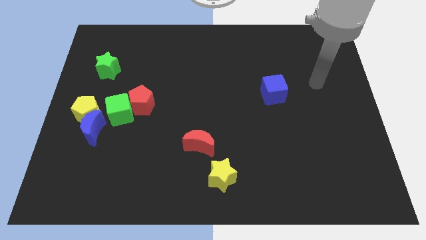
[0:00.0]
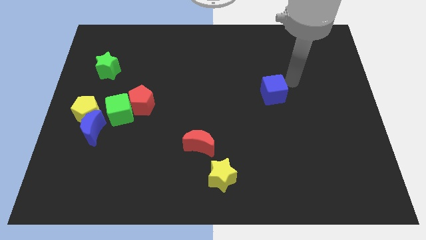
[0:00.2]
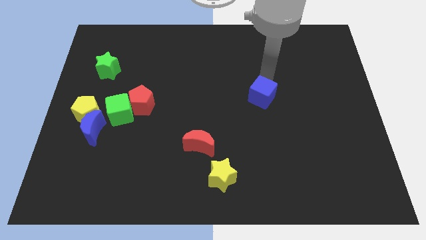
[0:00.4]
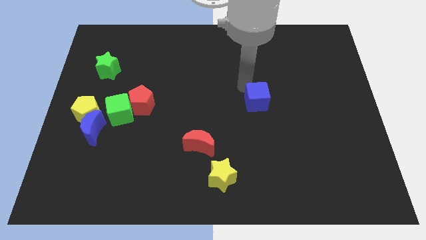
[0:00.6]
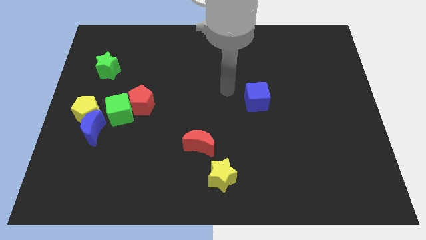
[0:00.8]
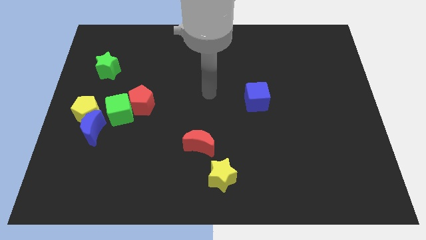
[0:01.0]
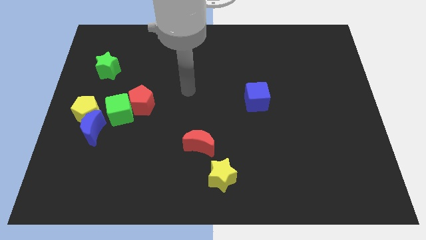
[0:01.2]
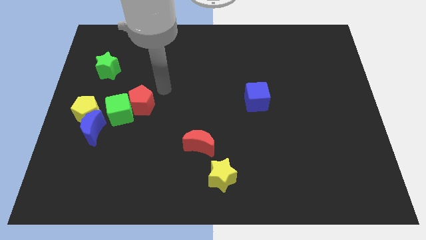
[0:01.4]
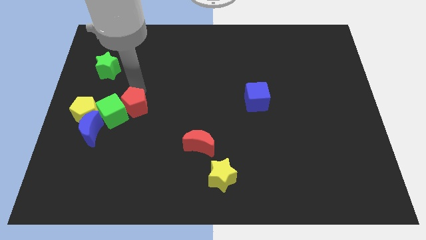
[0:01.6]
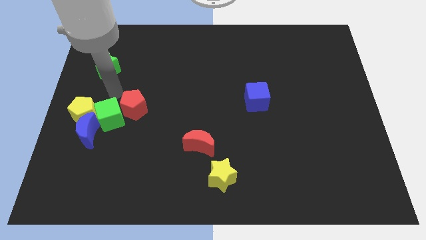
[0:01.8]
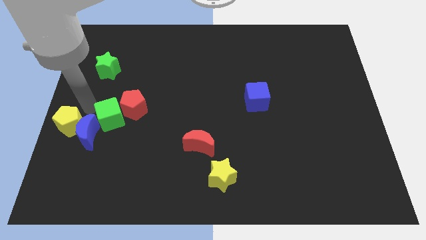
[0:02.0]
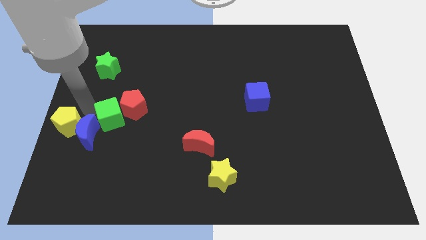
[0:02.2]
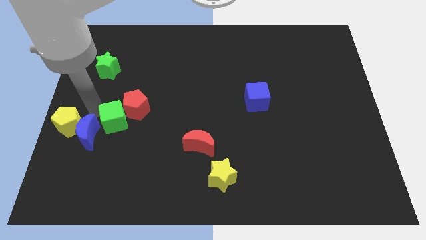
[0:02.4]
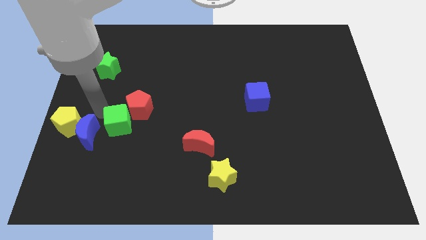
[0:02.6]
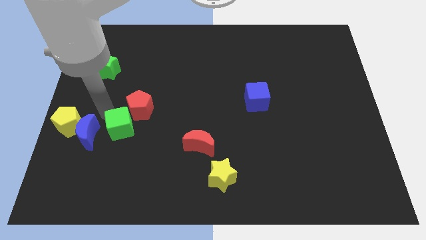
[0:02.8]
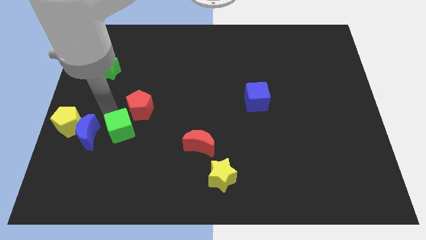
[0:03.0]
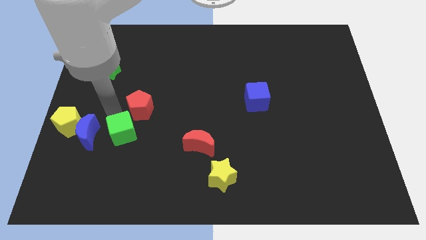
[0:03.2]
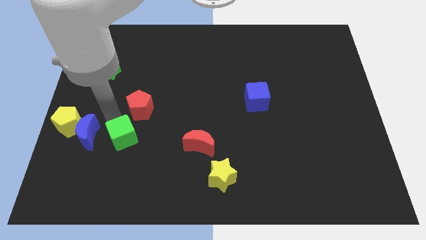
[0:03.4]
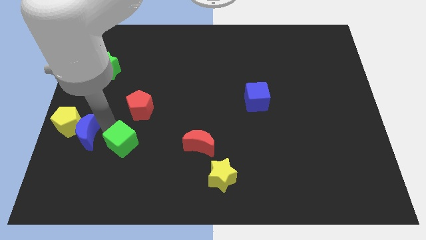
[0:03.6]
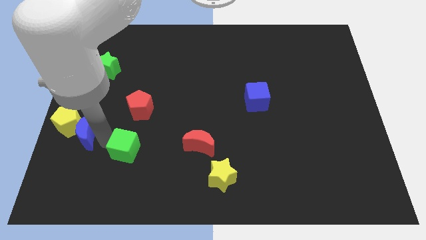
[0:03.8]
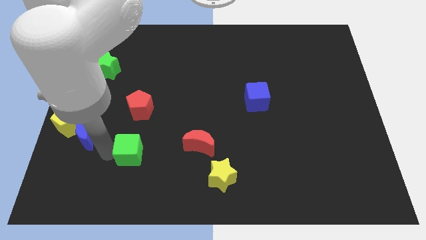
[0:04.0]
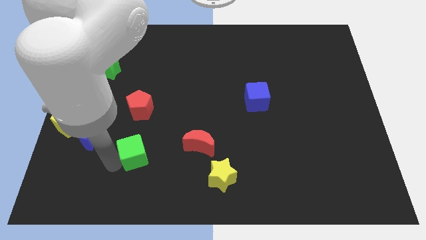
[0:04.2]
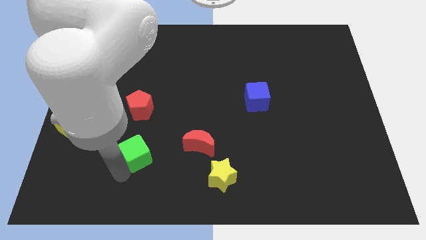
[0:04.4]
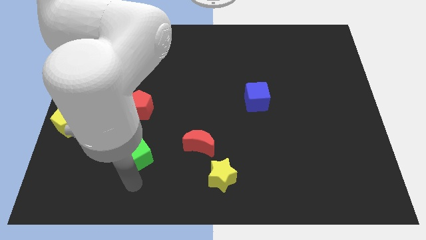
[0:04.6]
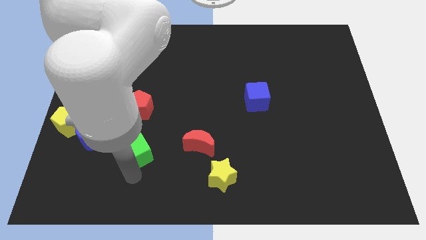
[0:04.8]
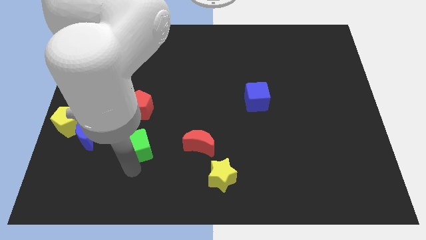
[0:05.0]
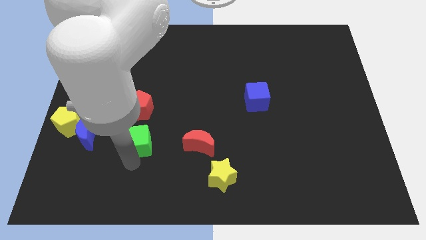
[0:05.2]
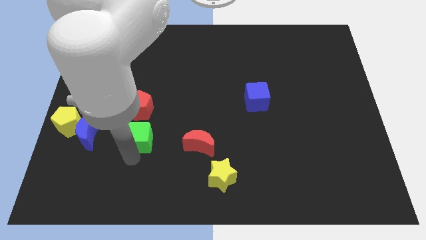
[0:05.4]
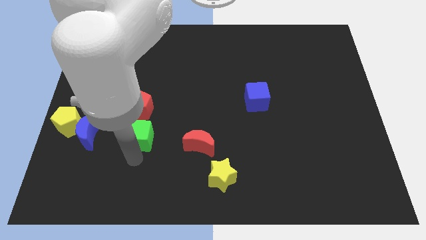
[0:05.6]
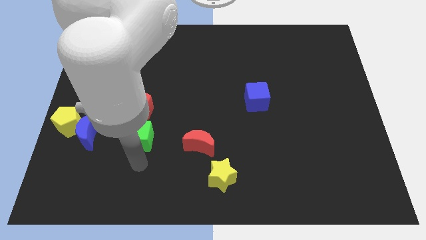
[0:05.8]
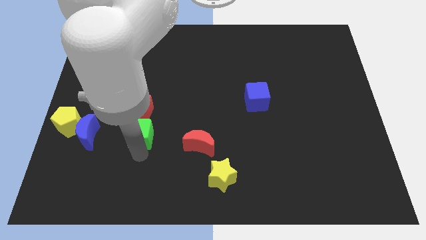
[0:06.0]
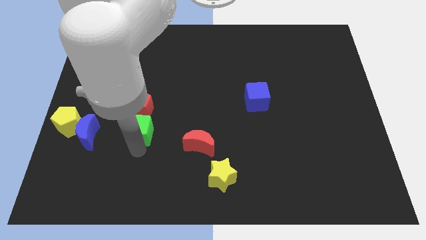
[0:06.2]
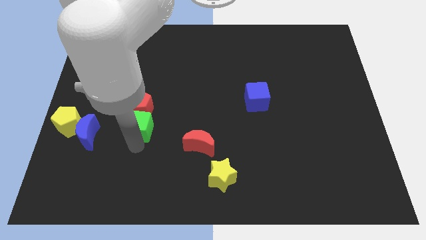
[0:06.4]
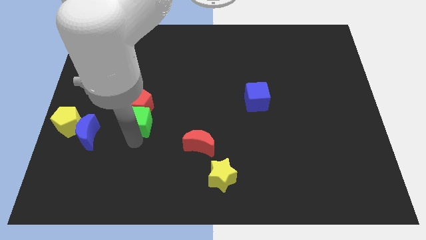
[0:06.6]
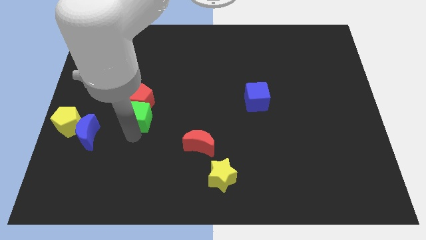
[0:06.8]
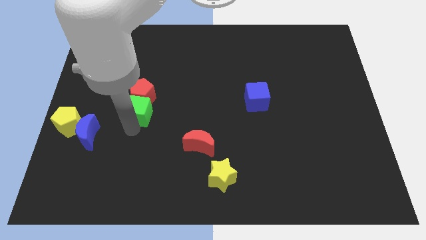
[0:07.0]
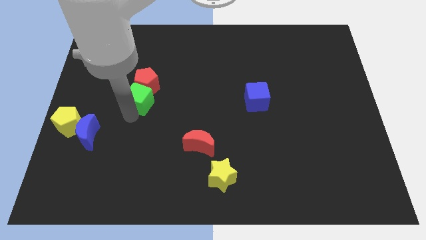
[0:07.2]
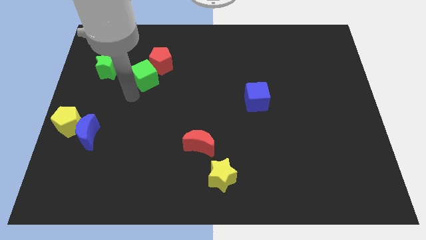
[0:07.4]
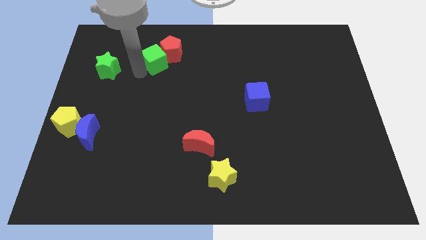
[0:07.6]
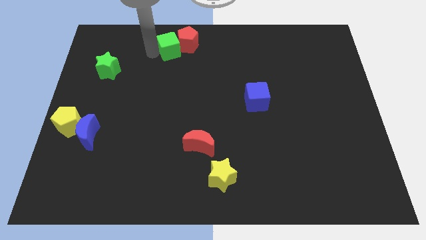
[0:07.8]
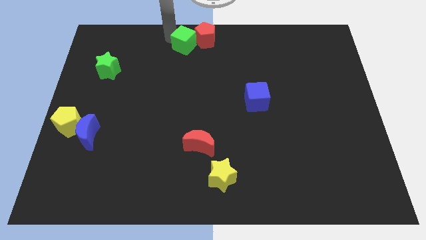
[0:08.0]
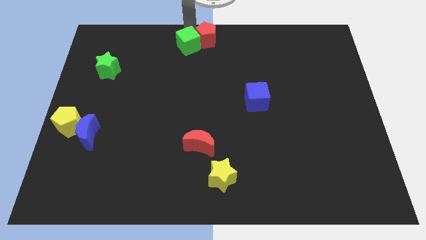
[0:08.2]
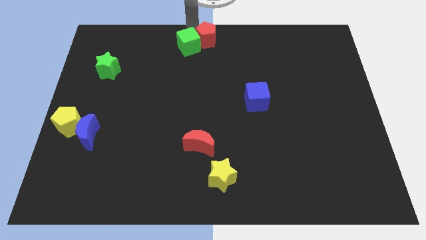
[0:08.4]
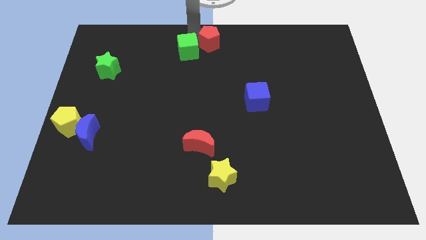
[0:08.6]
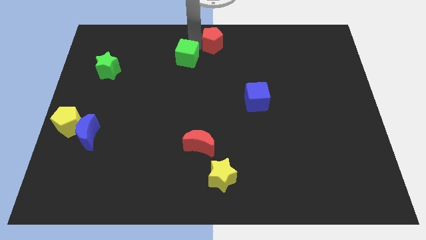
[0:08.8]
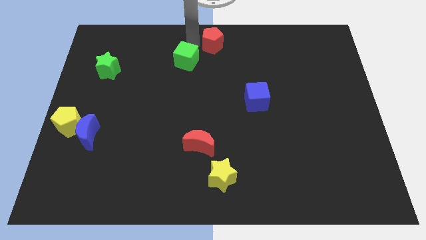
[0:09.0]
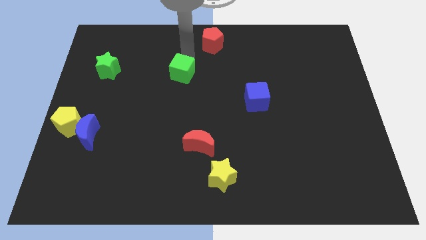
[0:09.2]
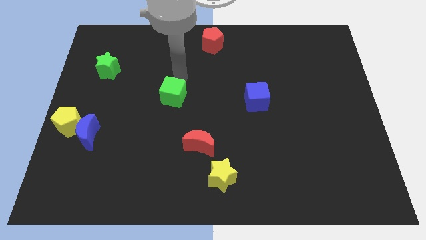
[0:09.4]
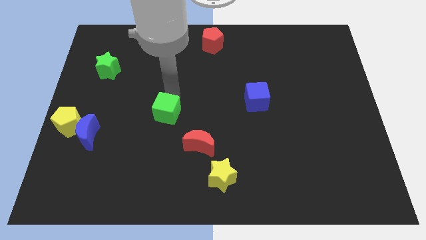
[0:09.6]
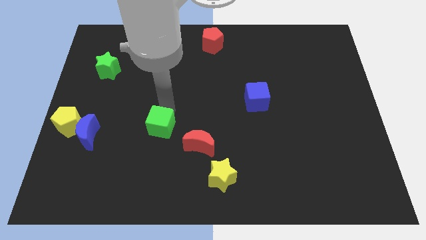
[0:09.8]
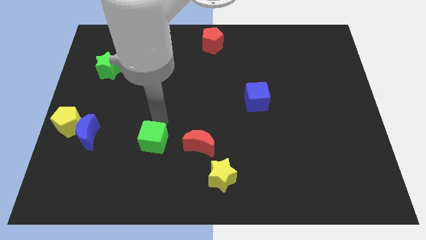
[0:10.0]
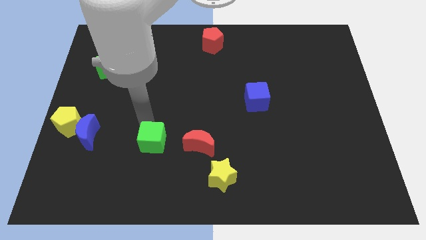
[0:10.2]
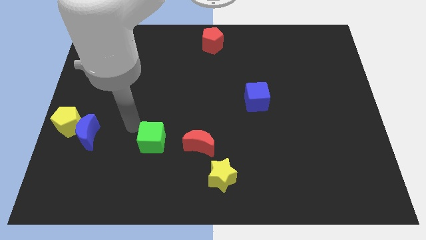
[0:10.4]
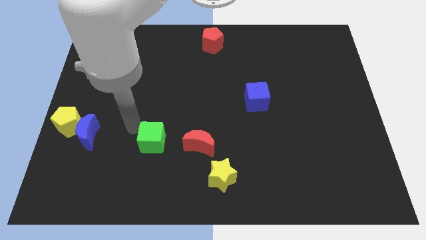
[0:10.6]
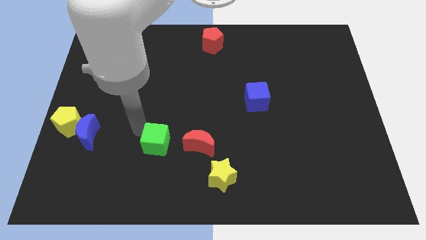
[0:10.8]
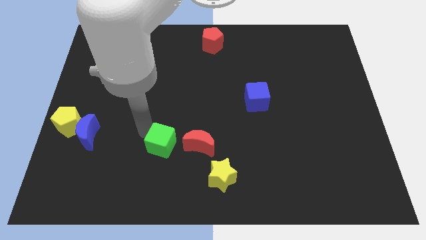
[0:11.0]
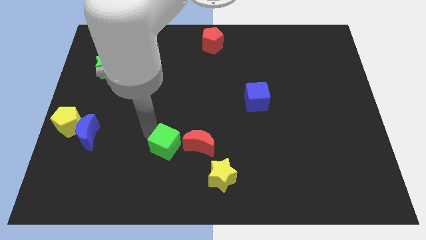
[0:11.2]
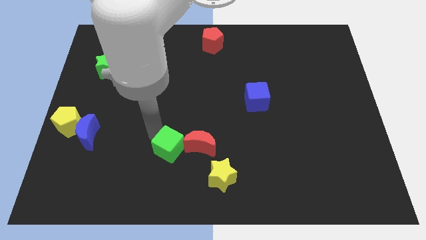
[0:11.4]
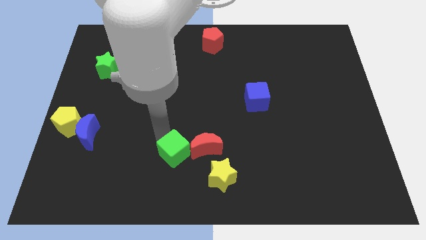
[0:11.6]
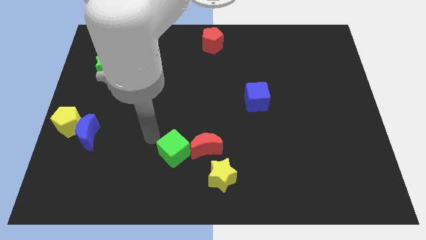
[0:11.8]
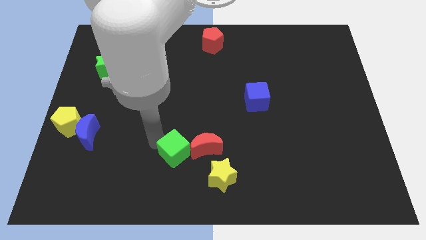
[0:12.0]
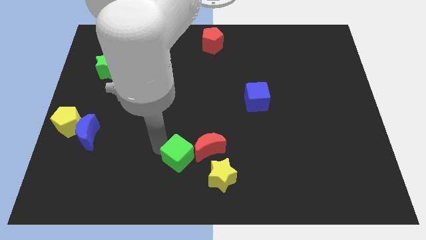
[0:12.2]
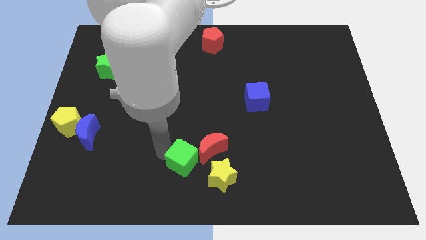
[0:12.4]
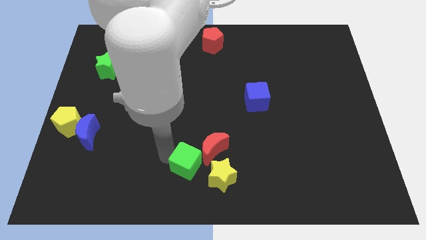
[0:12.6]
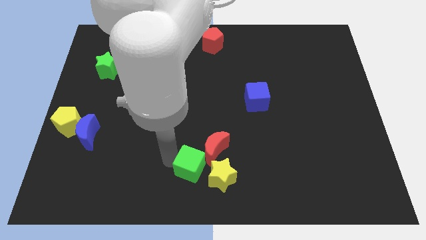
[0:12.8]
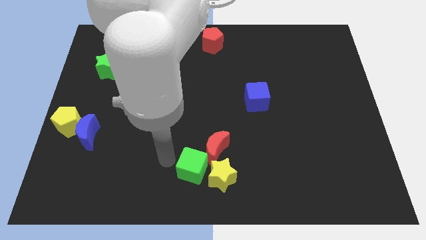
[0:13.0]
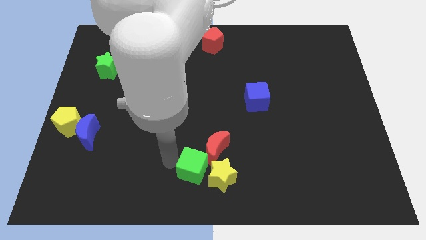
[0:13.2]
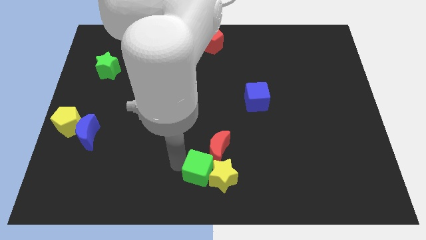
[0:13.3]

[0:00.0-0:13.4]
move the green cube to the yellow star

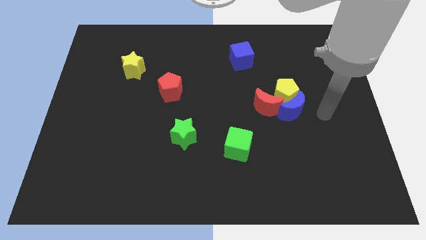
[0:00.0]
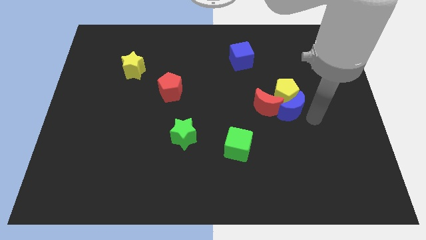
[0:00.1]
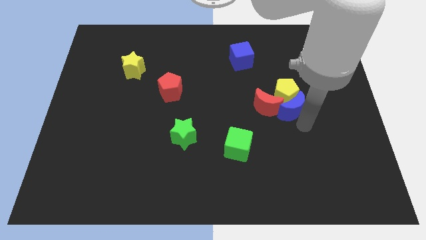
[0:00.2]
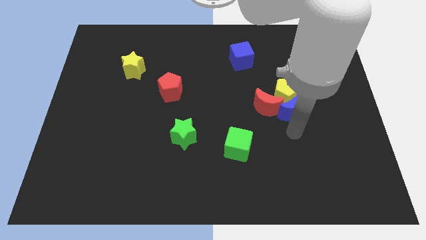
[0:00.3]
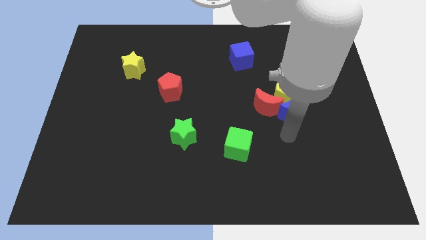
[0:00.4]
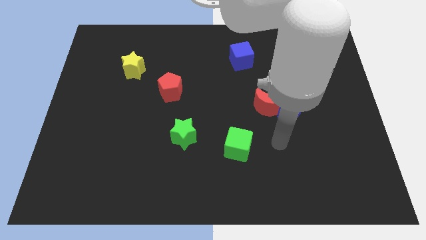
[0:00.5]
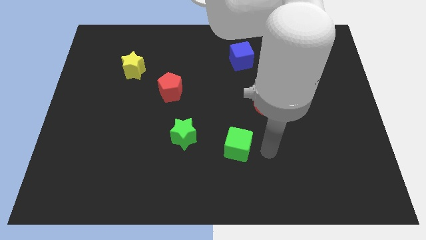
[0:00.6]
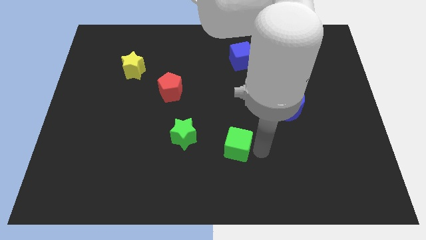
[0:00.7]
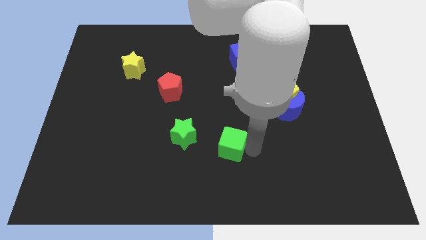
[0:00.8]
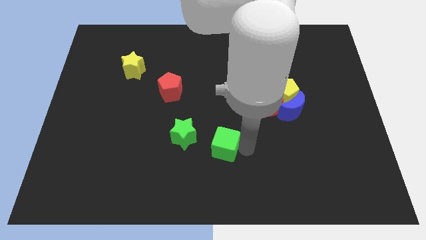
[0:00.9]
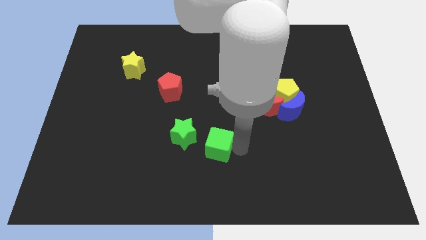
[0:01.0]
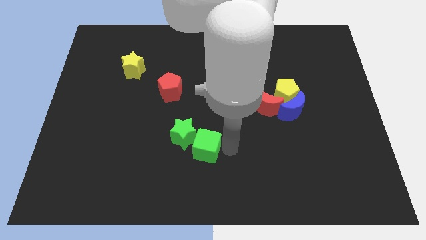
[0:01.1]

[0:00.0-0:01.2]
put the green cube towards the green star
